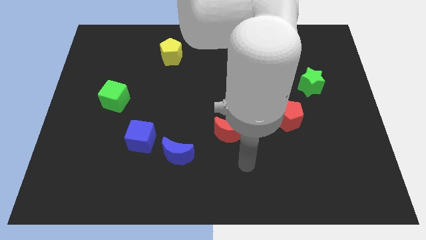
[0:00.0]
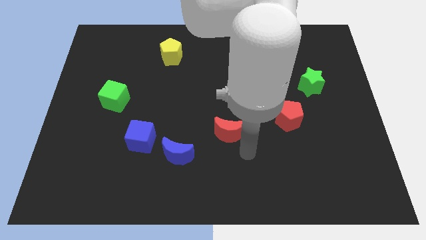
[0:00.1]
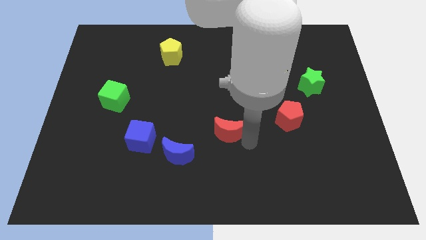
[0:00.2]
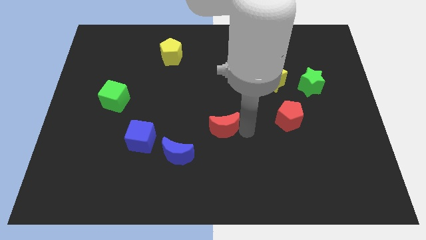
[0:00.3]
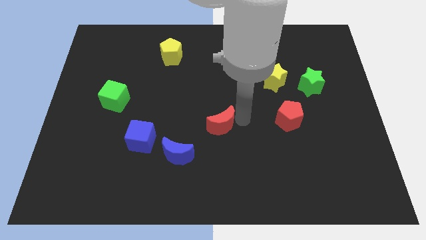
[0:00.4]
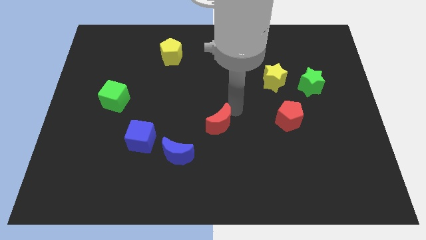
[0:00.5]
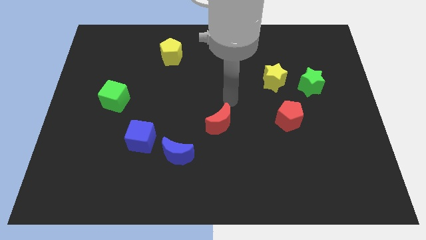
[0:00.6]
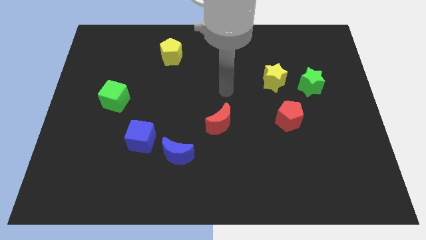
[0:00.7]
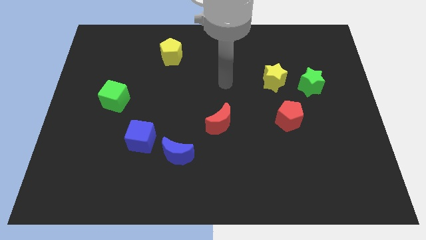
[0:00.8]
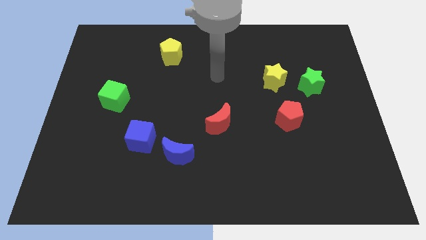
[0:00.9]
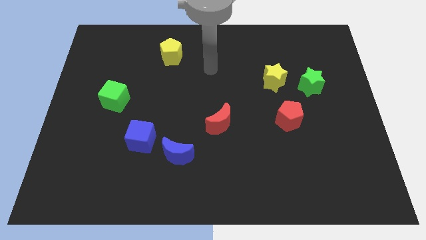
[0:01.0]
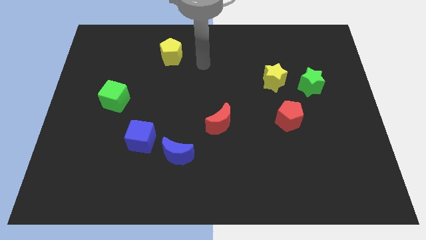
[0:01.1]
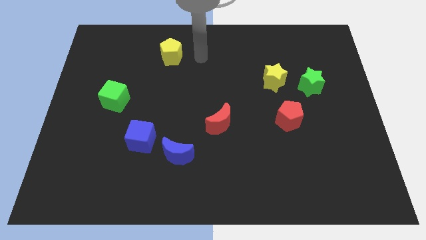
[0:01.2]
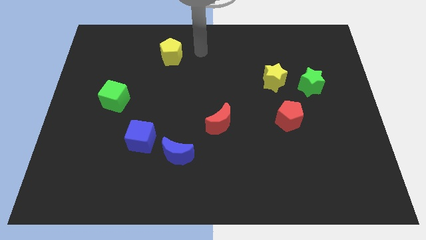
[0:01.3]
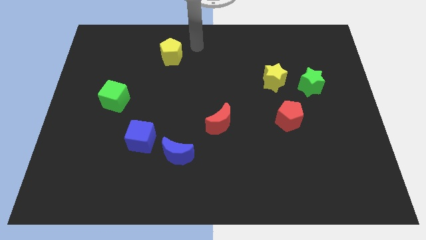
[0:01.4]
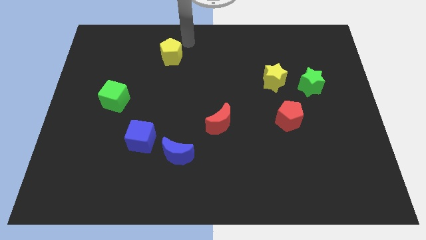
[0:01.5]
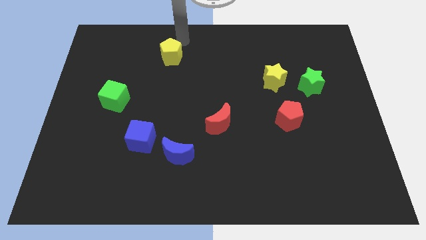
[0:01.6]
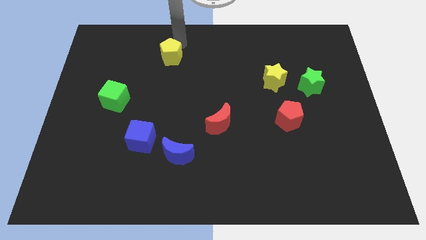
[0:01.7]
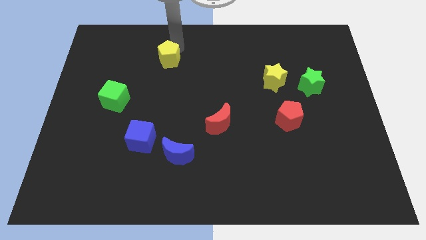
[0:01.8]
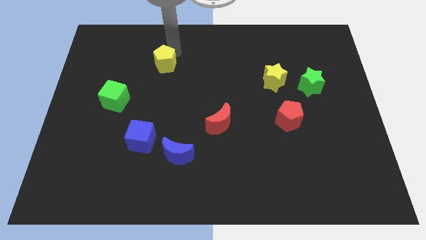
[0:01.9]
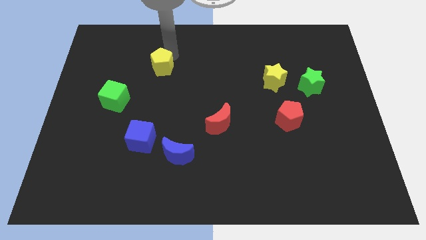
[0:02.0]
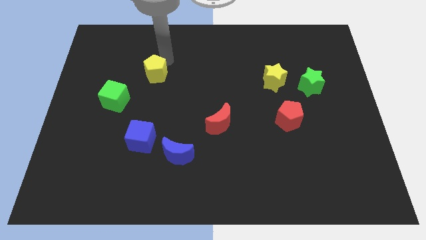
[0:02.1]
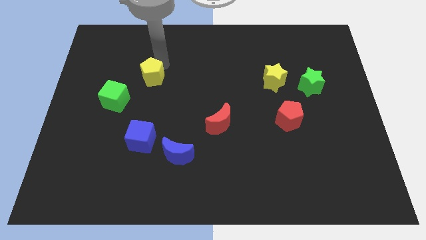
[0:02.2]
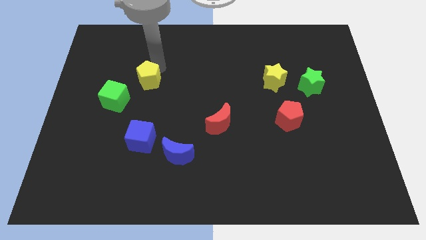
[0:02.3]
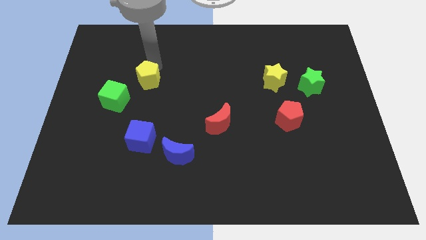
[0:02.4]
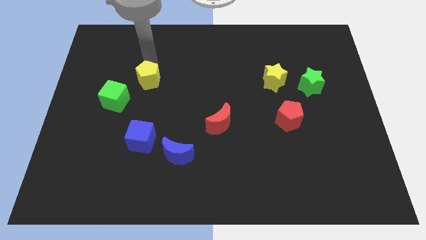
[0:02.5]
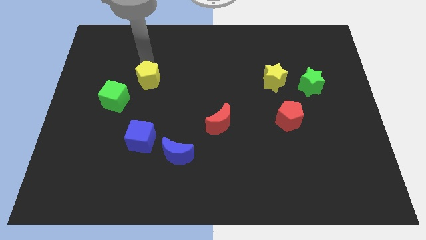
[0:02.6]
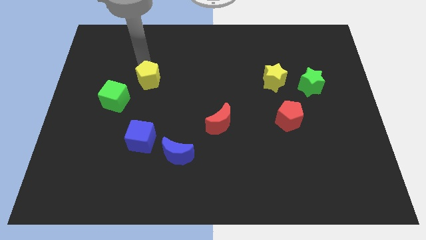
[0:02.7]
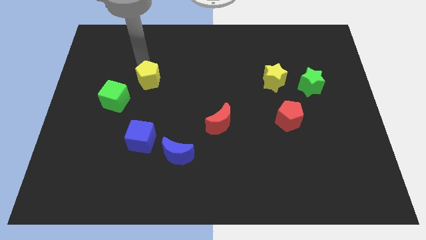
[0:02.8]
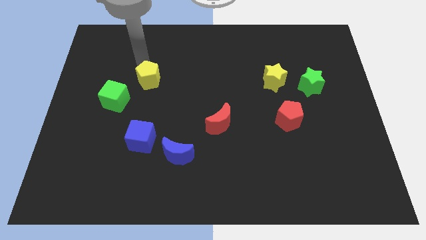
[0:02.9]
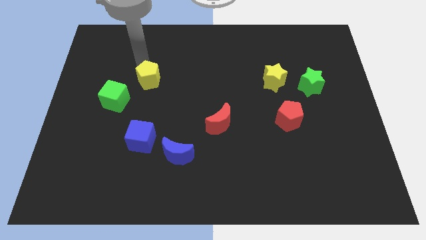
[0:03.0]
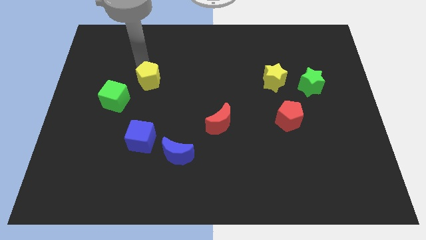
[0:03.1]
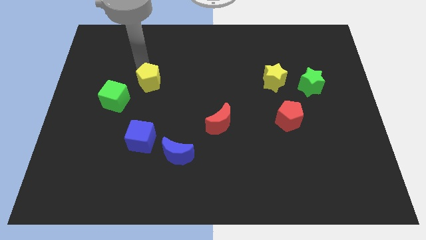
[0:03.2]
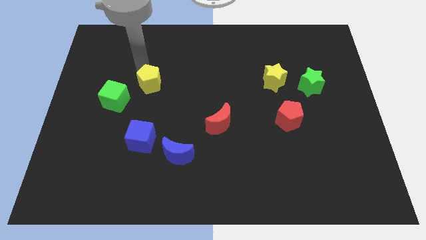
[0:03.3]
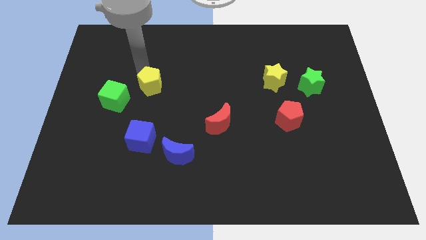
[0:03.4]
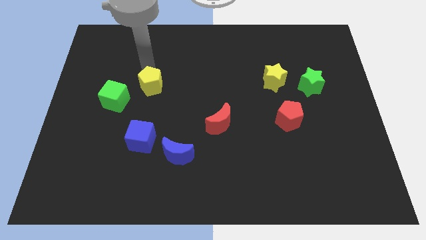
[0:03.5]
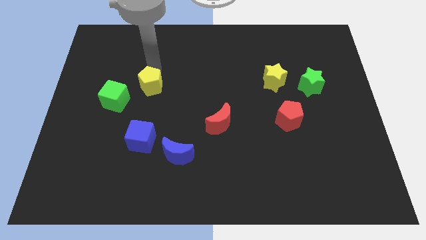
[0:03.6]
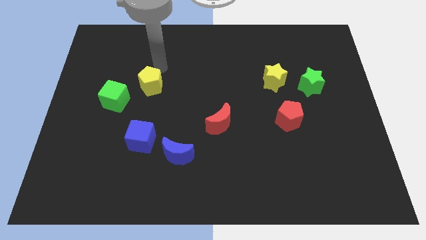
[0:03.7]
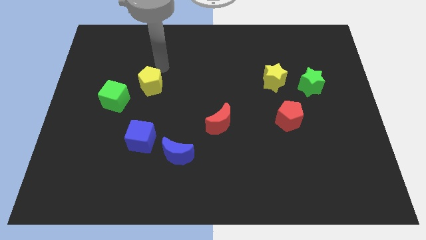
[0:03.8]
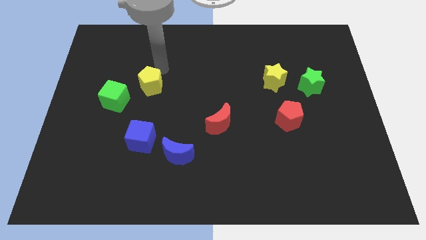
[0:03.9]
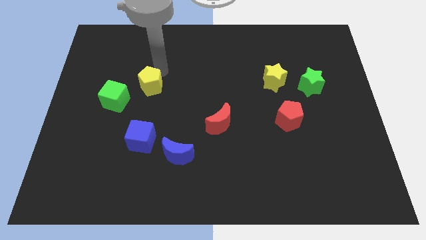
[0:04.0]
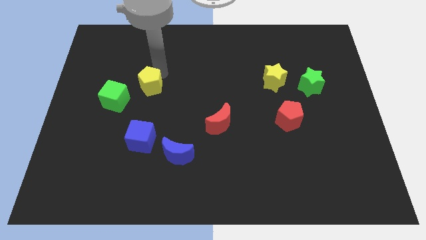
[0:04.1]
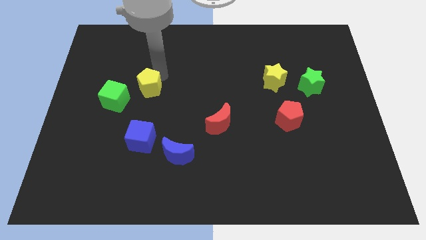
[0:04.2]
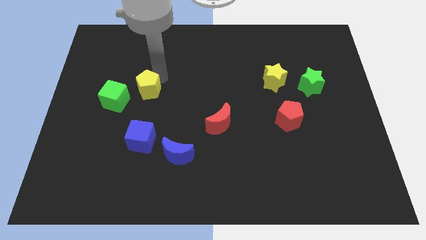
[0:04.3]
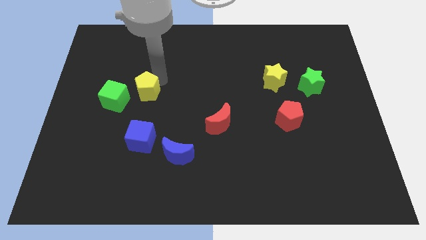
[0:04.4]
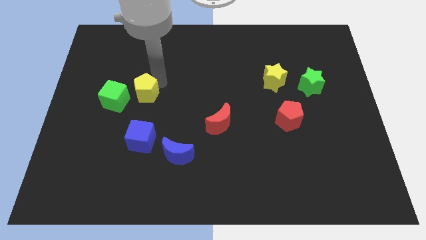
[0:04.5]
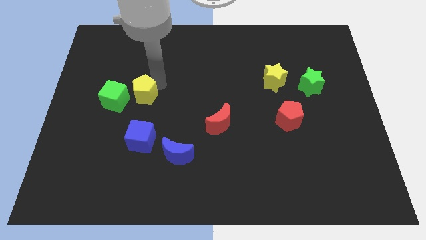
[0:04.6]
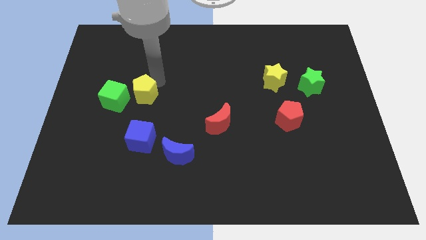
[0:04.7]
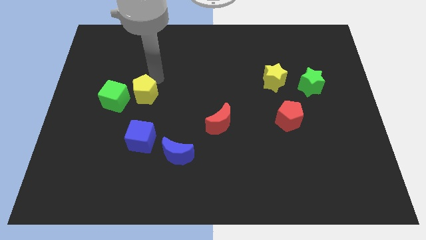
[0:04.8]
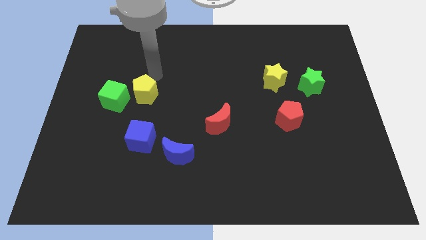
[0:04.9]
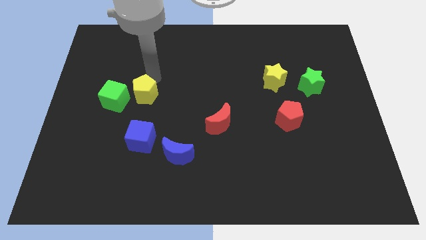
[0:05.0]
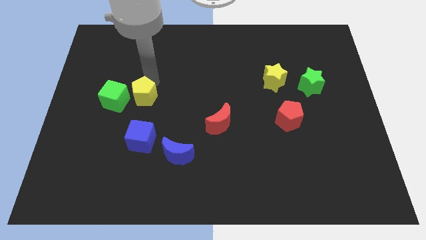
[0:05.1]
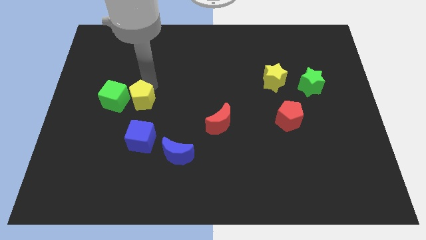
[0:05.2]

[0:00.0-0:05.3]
slide the yellow pentagon to the bottom right side of the green cube

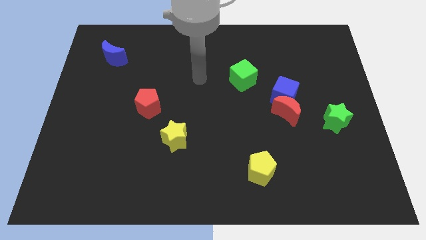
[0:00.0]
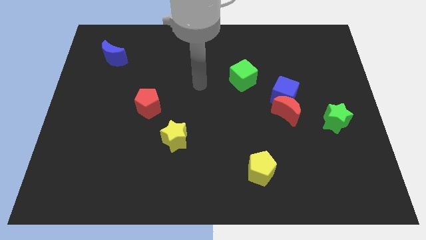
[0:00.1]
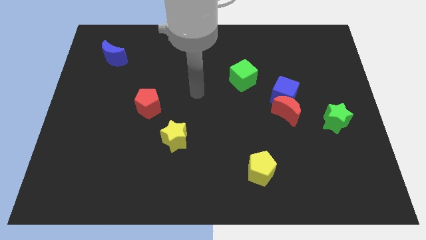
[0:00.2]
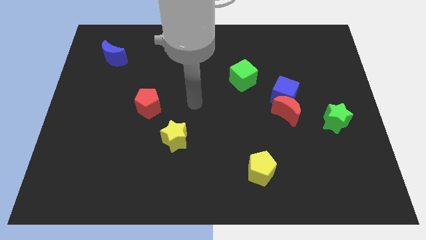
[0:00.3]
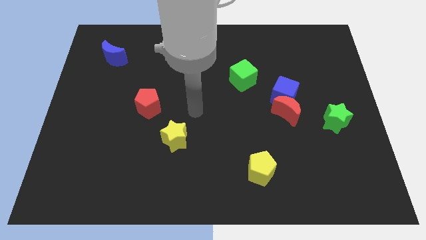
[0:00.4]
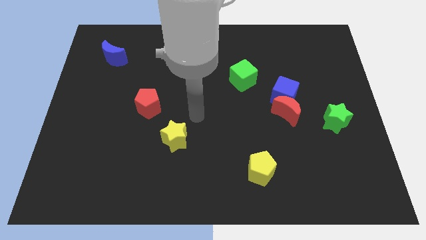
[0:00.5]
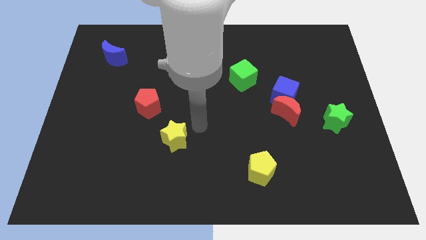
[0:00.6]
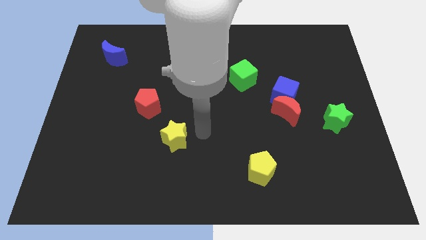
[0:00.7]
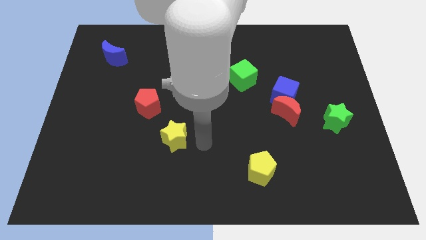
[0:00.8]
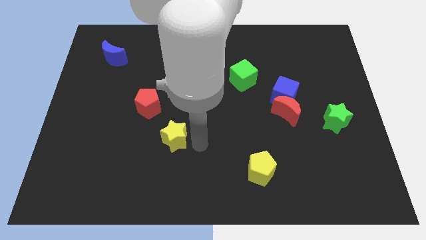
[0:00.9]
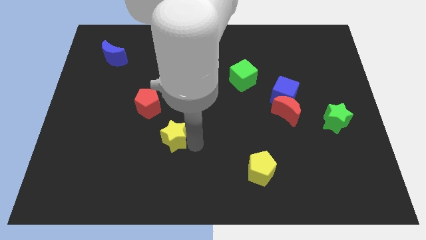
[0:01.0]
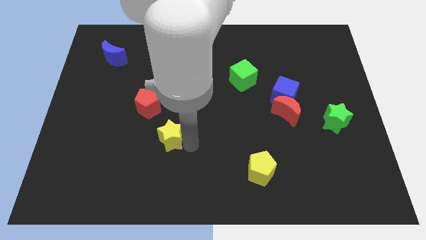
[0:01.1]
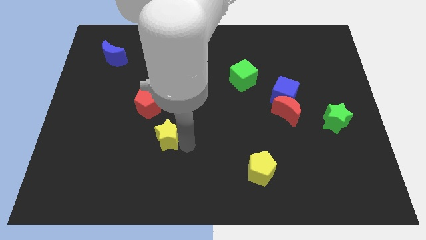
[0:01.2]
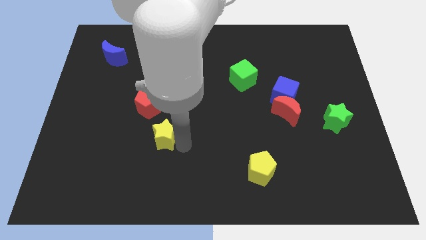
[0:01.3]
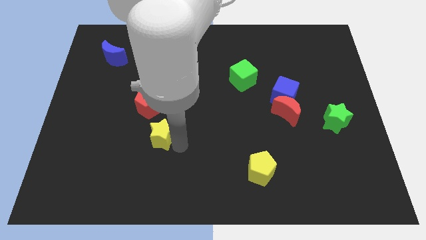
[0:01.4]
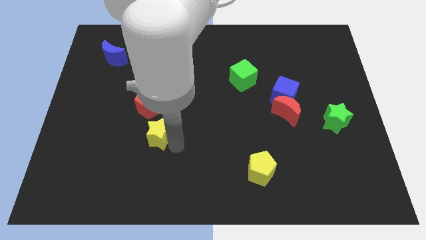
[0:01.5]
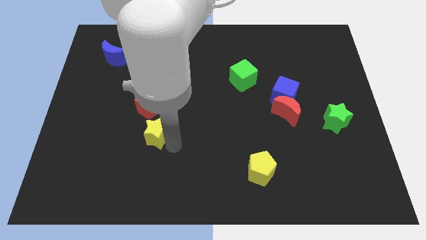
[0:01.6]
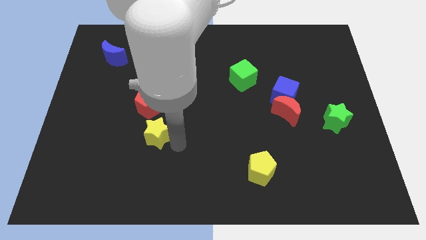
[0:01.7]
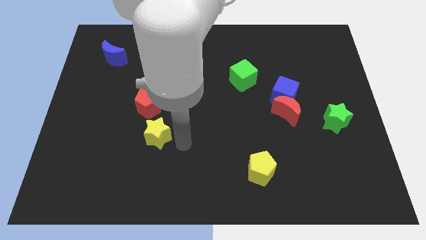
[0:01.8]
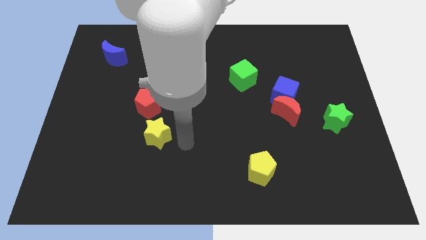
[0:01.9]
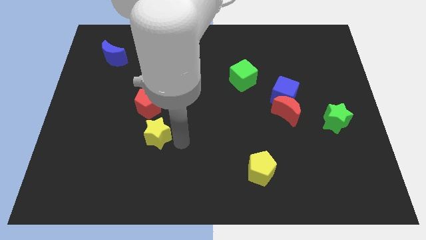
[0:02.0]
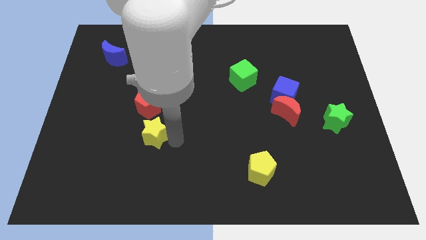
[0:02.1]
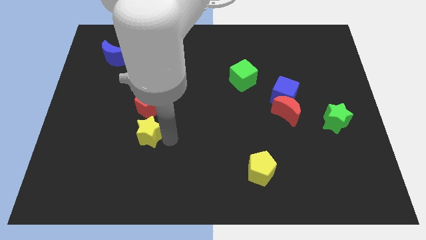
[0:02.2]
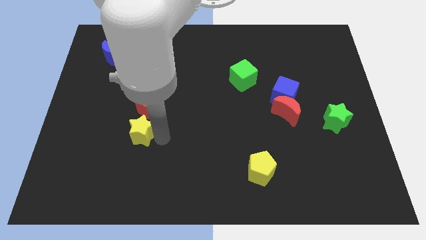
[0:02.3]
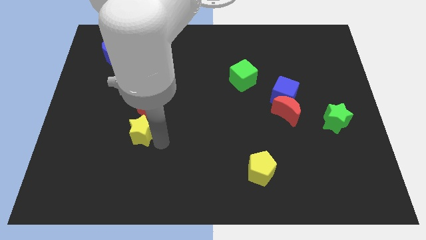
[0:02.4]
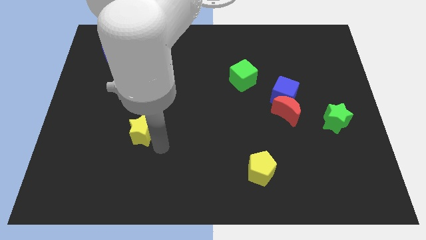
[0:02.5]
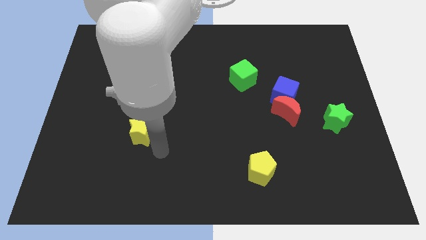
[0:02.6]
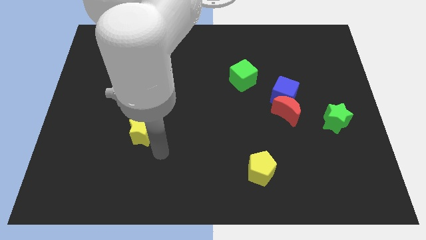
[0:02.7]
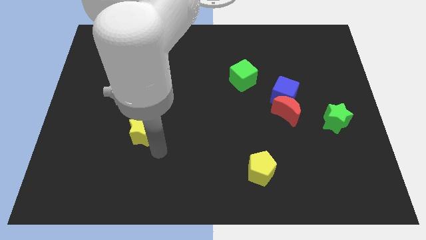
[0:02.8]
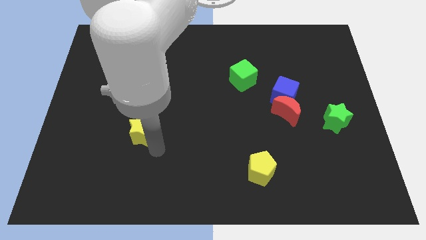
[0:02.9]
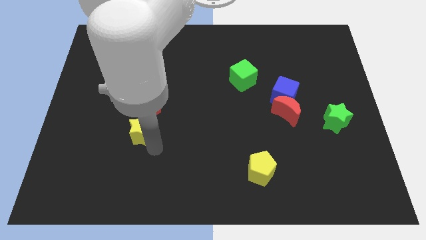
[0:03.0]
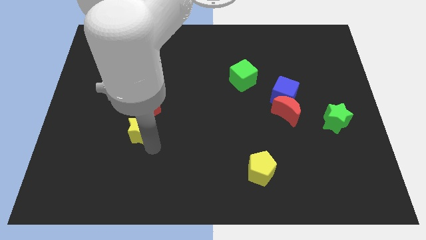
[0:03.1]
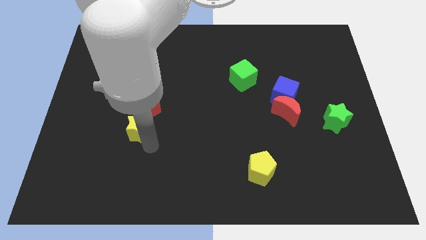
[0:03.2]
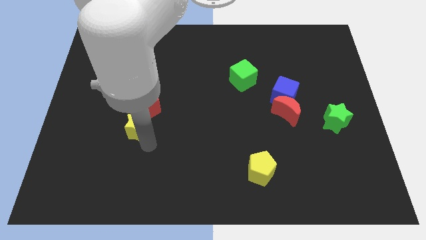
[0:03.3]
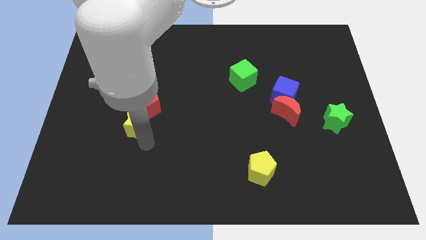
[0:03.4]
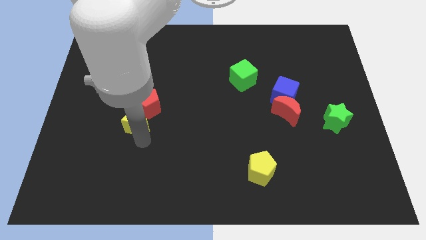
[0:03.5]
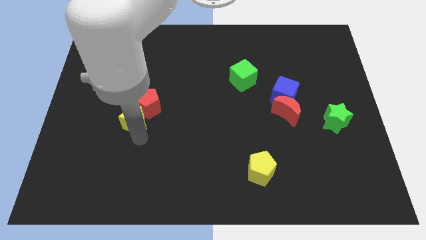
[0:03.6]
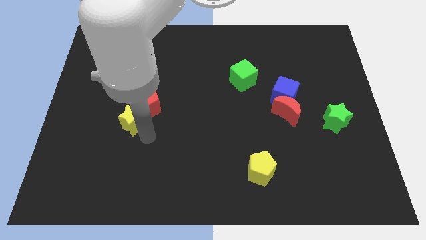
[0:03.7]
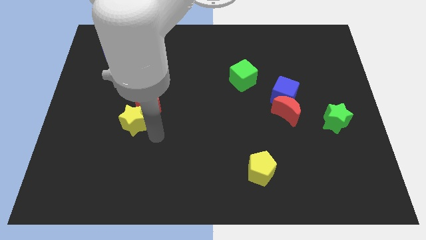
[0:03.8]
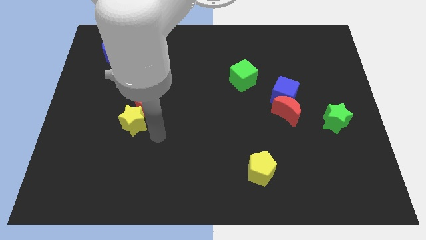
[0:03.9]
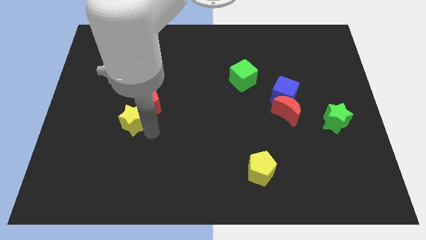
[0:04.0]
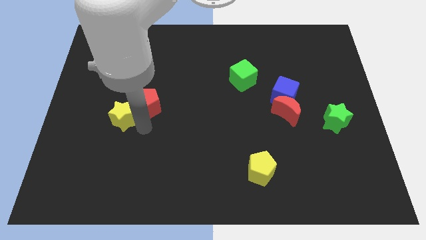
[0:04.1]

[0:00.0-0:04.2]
move the yellow star to the left side of the red pentagon
